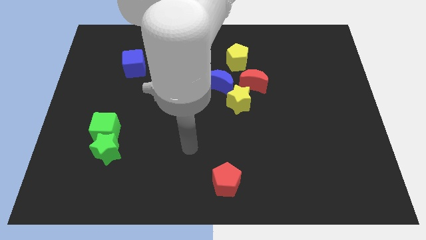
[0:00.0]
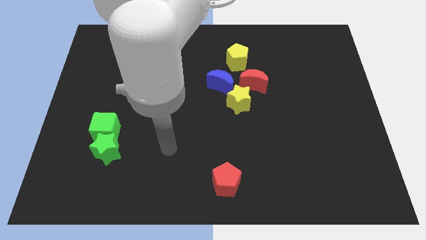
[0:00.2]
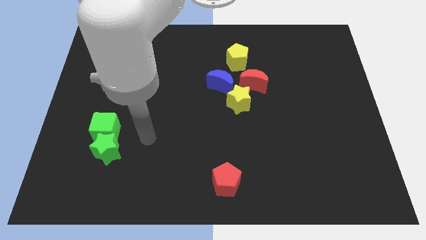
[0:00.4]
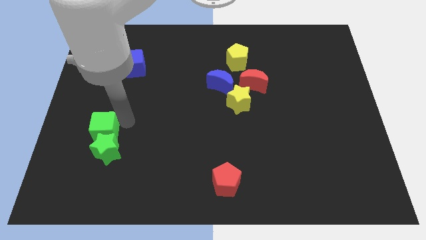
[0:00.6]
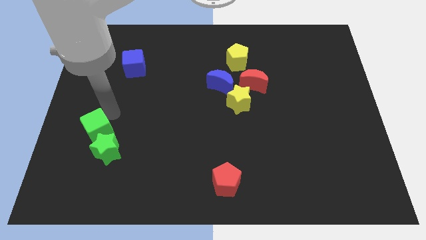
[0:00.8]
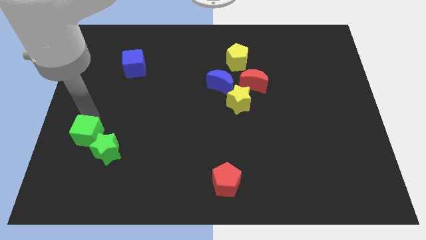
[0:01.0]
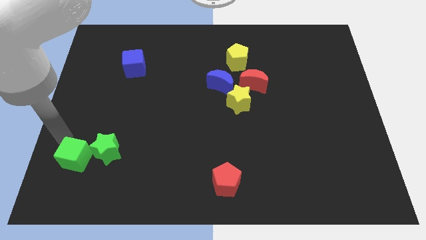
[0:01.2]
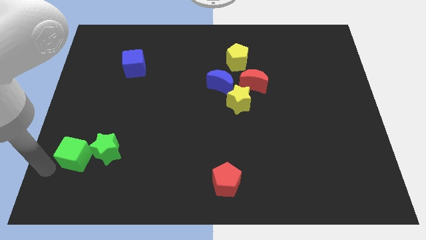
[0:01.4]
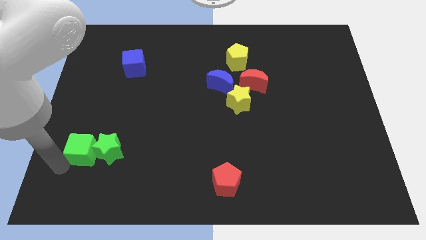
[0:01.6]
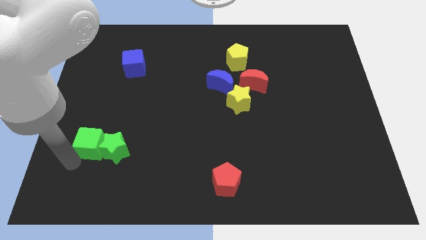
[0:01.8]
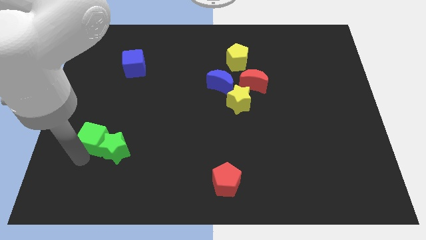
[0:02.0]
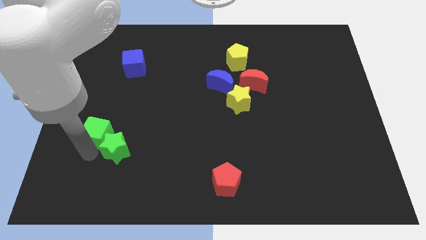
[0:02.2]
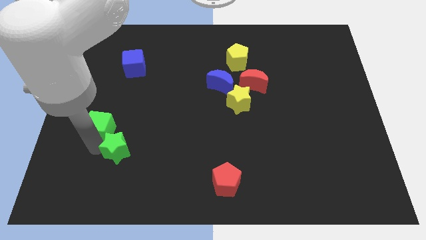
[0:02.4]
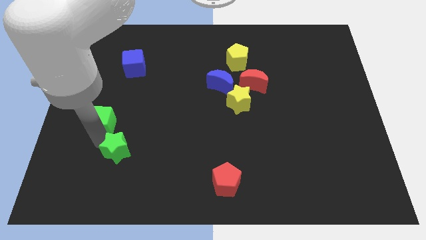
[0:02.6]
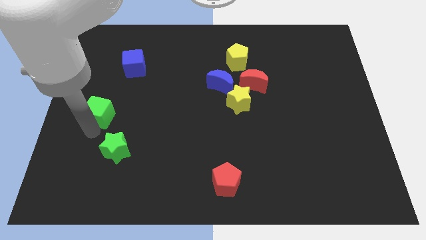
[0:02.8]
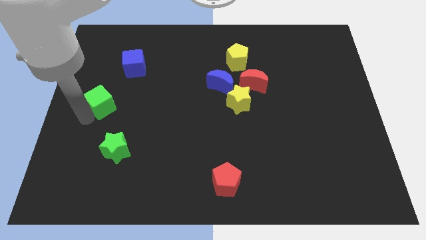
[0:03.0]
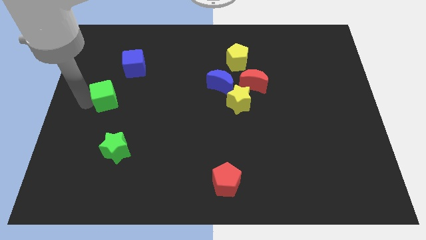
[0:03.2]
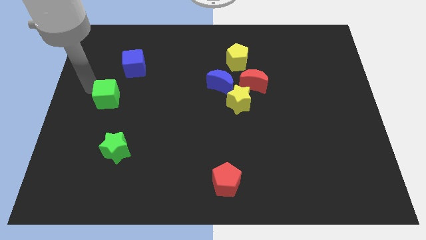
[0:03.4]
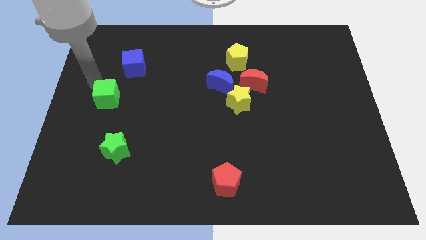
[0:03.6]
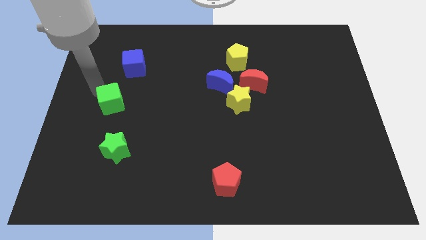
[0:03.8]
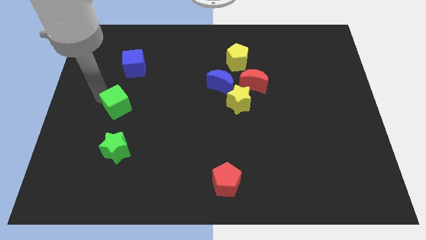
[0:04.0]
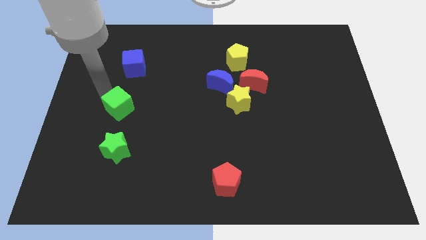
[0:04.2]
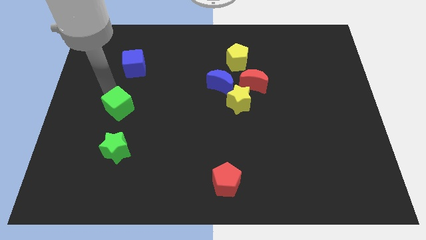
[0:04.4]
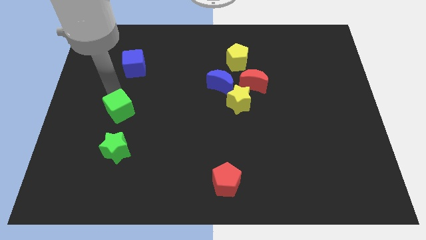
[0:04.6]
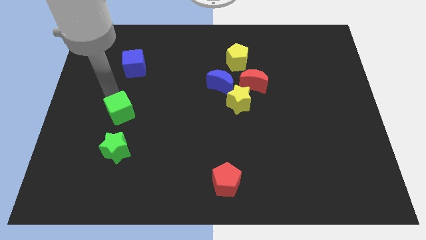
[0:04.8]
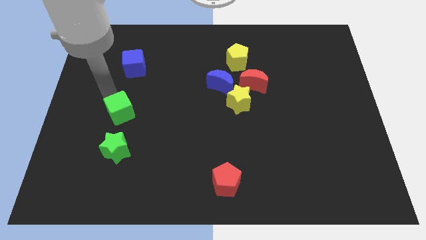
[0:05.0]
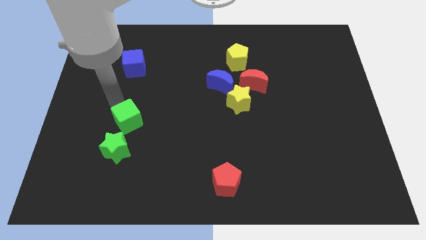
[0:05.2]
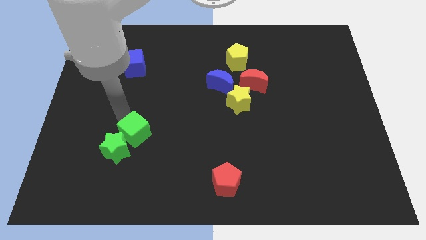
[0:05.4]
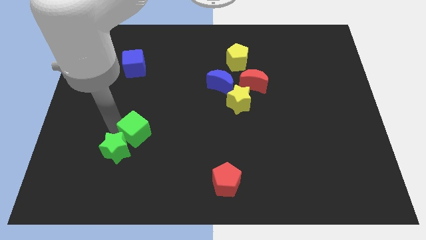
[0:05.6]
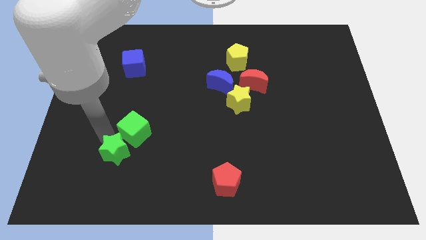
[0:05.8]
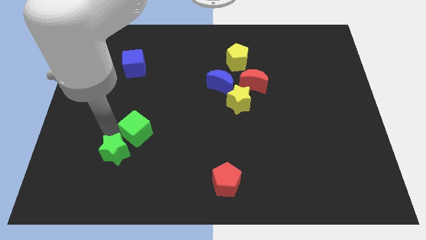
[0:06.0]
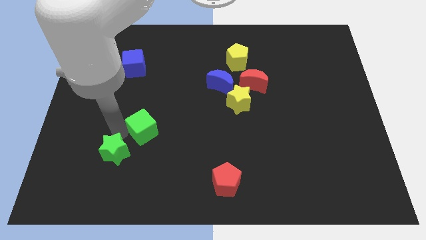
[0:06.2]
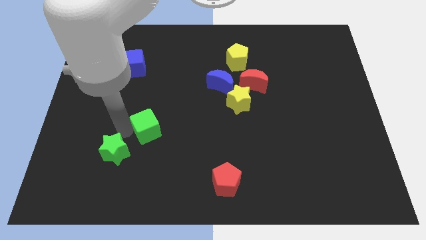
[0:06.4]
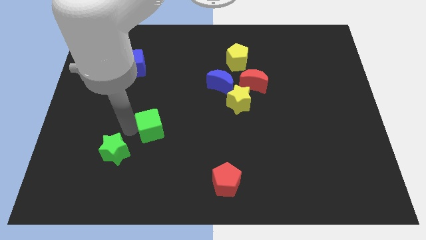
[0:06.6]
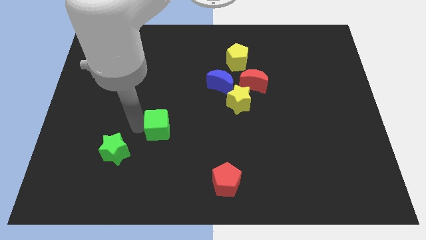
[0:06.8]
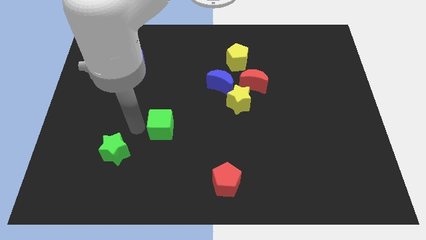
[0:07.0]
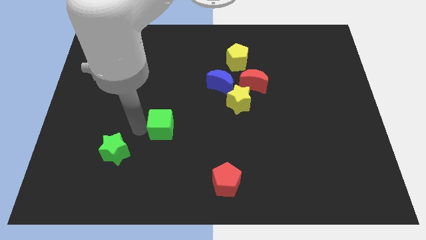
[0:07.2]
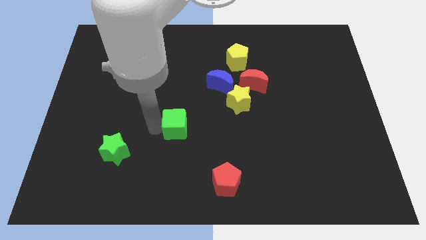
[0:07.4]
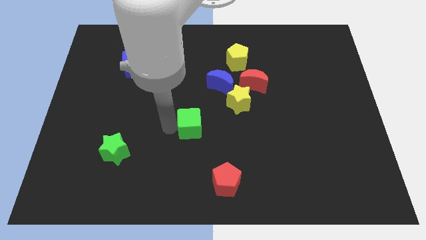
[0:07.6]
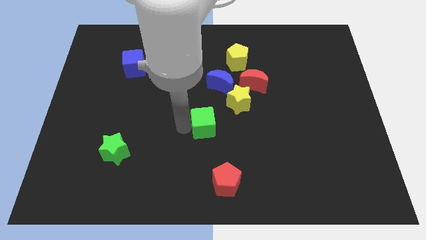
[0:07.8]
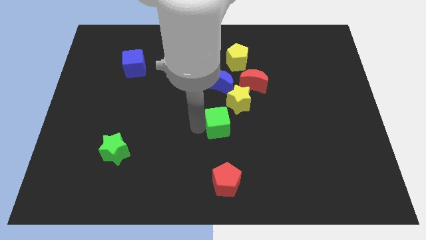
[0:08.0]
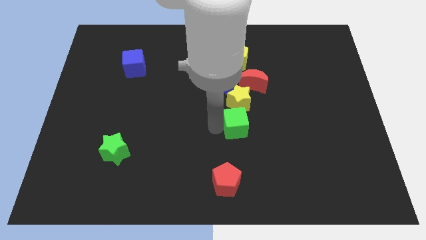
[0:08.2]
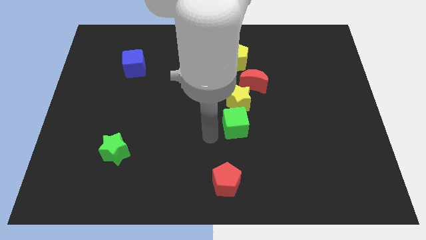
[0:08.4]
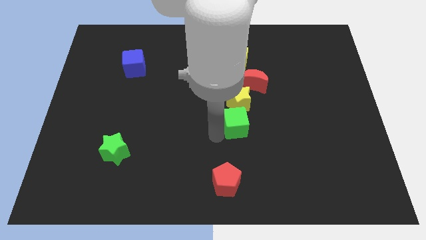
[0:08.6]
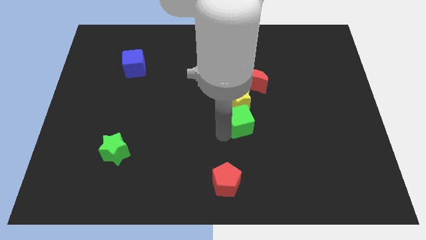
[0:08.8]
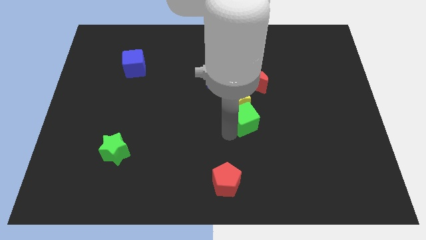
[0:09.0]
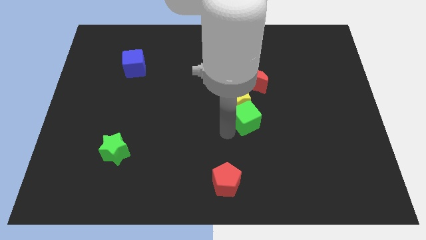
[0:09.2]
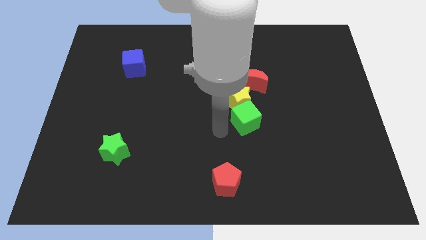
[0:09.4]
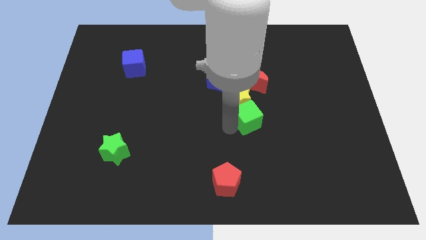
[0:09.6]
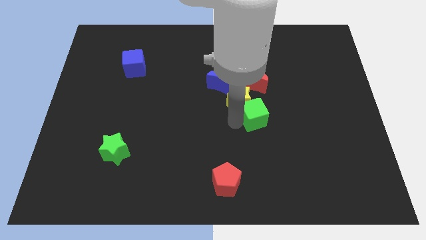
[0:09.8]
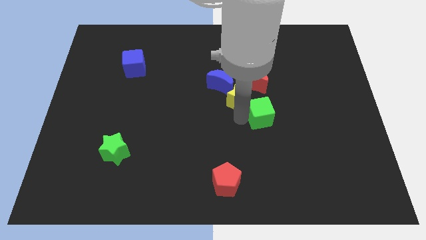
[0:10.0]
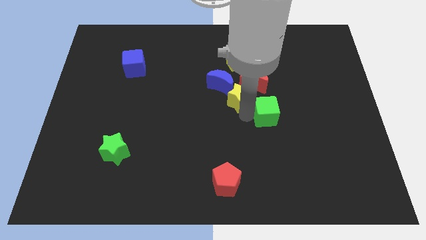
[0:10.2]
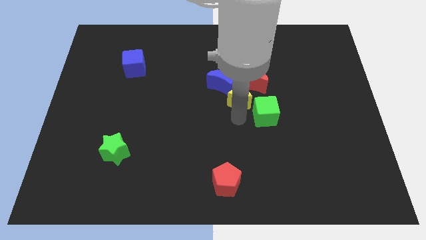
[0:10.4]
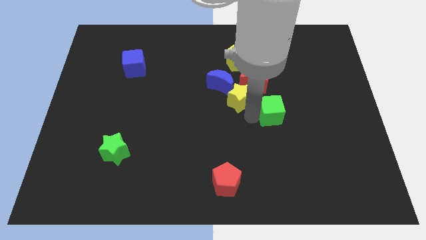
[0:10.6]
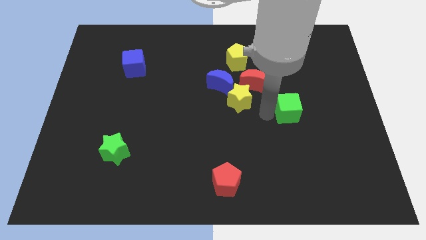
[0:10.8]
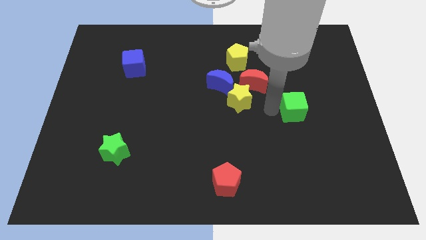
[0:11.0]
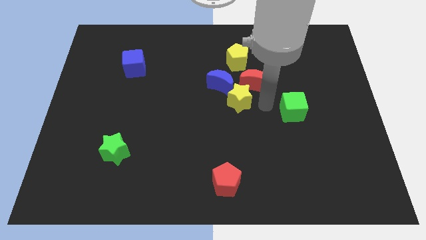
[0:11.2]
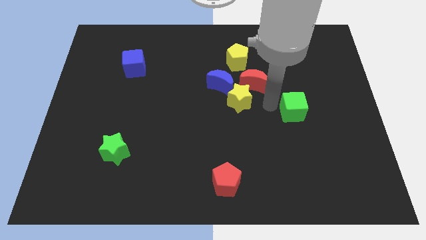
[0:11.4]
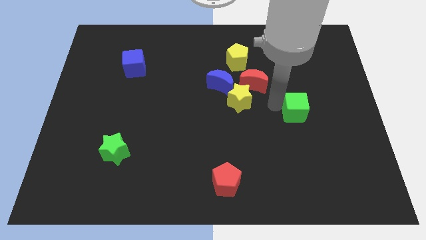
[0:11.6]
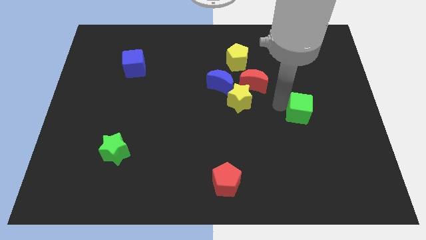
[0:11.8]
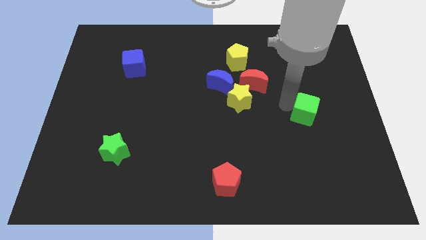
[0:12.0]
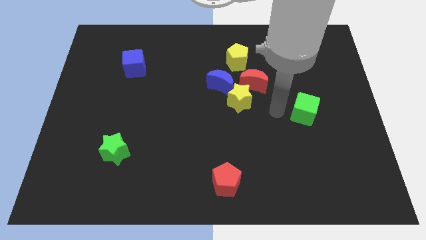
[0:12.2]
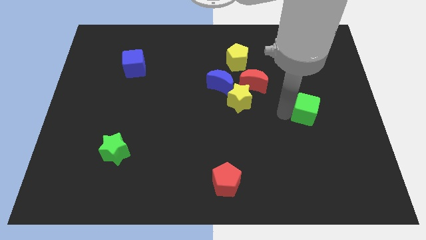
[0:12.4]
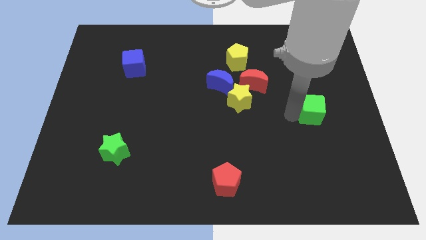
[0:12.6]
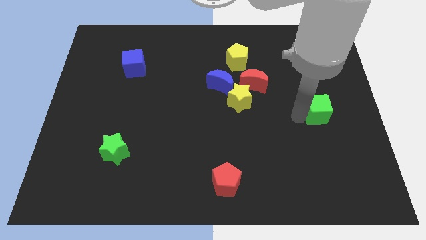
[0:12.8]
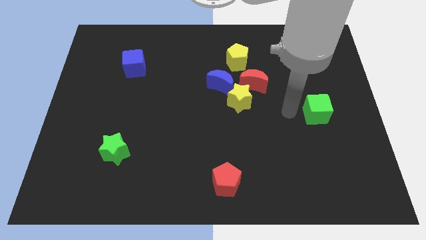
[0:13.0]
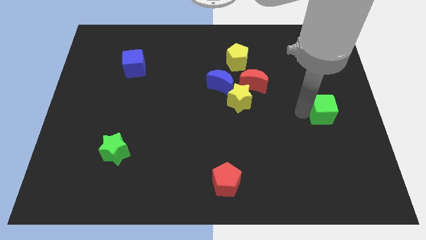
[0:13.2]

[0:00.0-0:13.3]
move the green cube to the center right
